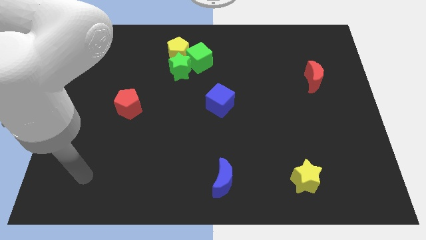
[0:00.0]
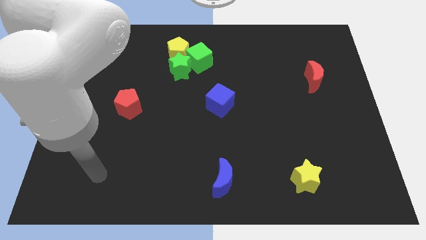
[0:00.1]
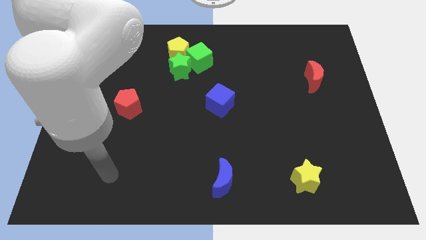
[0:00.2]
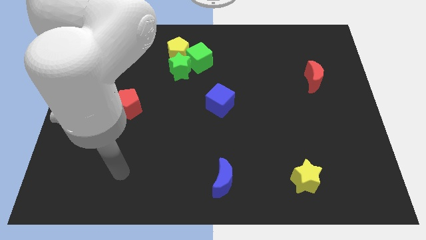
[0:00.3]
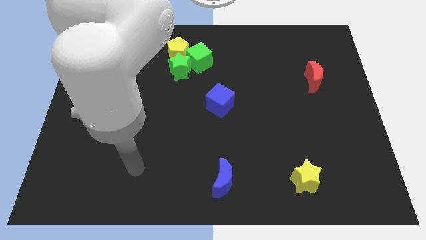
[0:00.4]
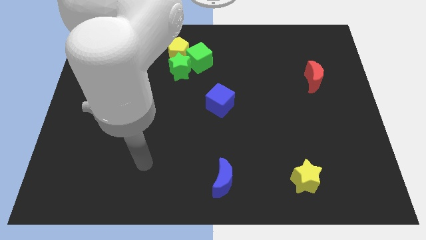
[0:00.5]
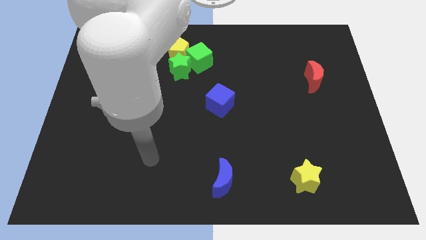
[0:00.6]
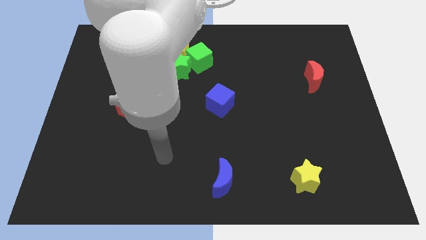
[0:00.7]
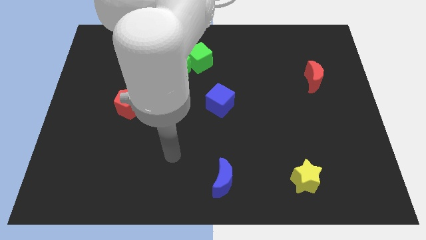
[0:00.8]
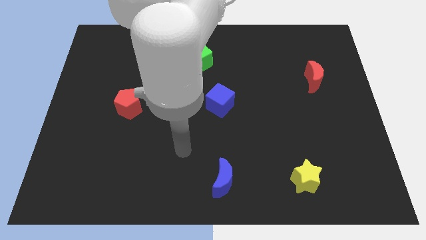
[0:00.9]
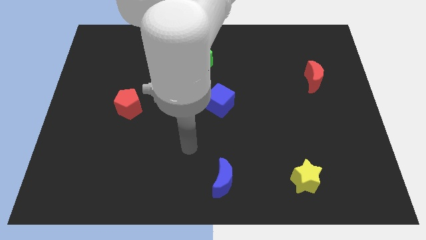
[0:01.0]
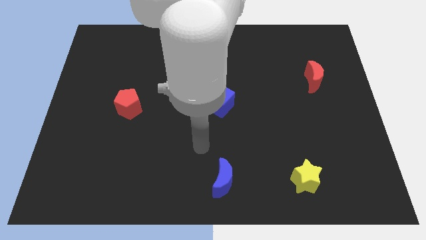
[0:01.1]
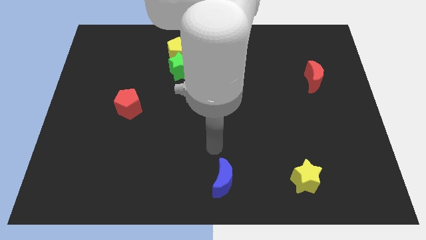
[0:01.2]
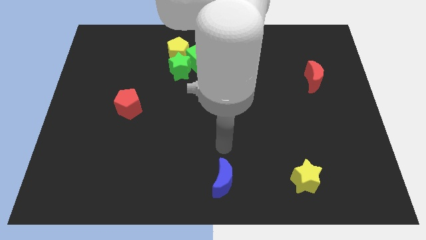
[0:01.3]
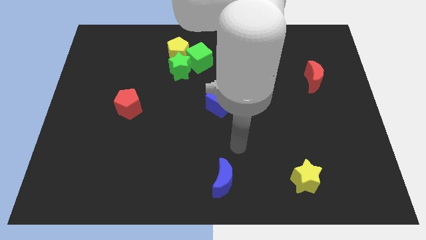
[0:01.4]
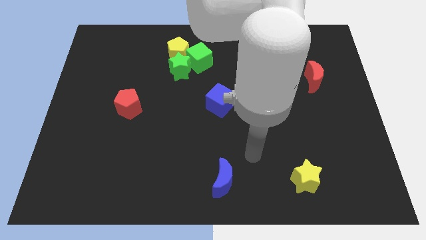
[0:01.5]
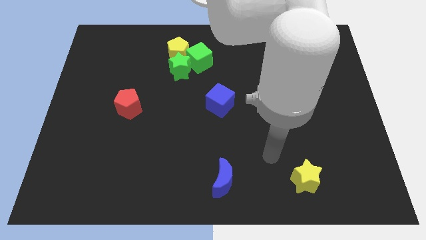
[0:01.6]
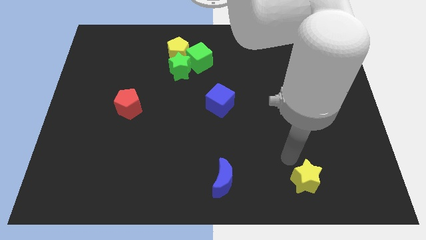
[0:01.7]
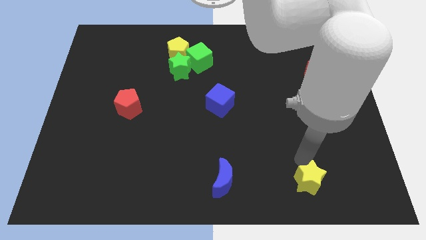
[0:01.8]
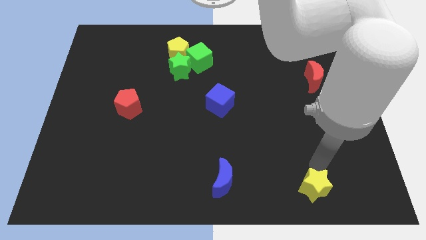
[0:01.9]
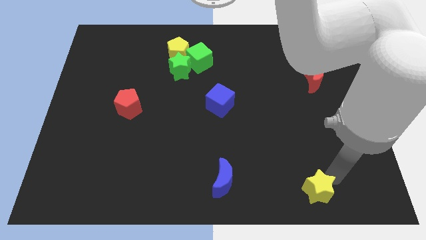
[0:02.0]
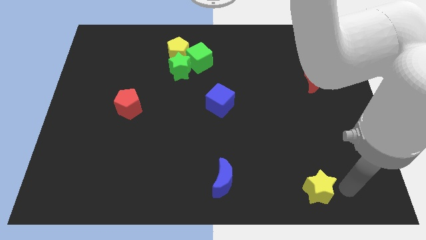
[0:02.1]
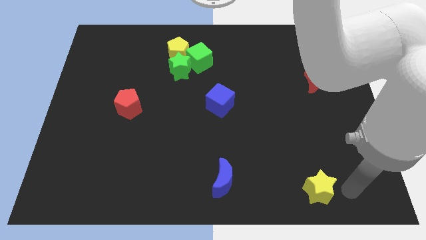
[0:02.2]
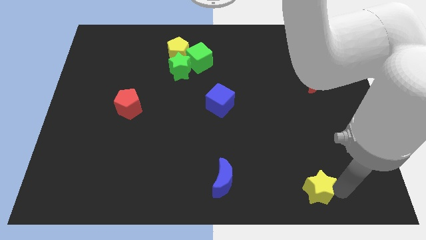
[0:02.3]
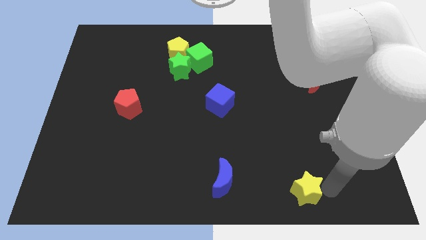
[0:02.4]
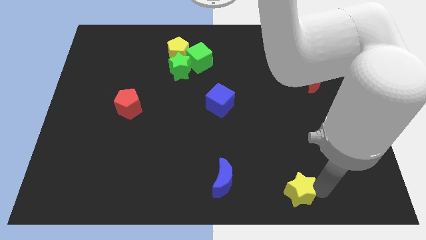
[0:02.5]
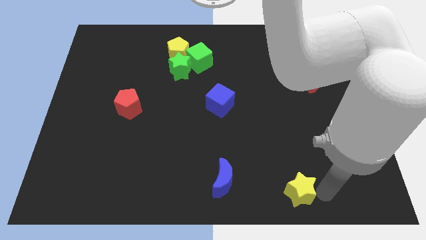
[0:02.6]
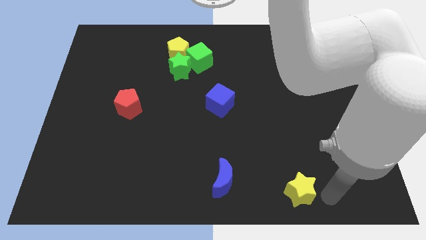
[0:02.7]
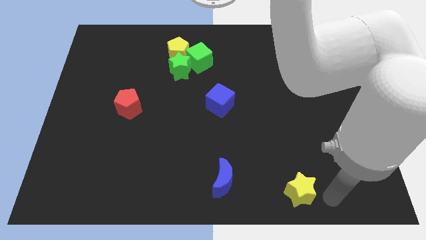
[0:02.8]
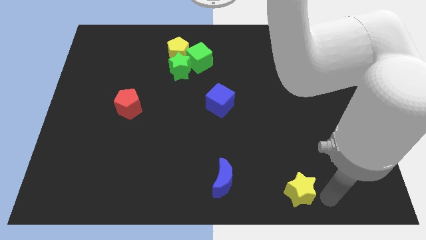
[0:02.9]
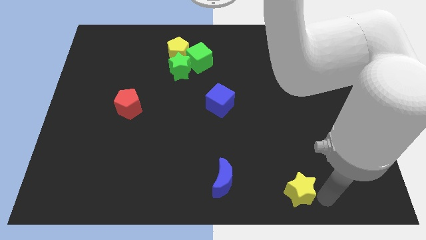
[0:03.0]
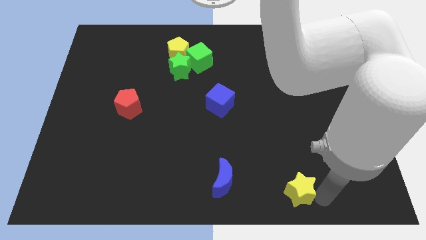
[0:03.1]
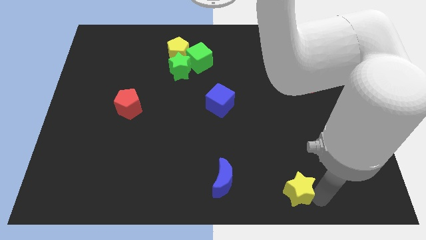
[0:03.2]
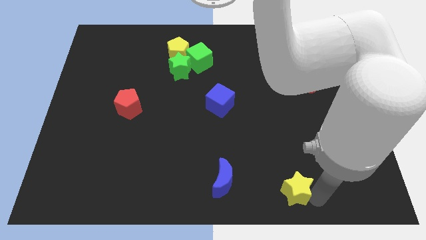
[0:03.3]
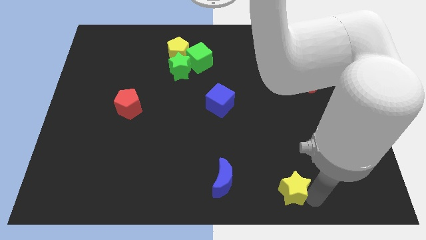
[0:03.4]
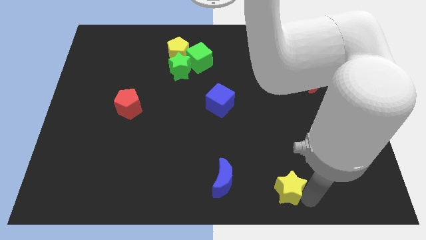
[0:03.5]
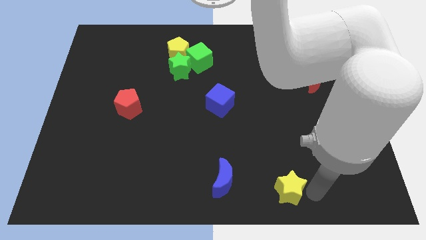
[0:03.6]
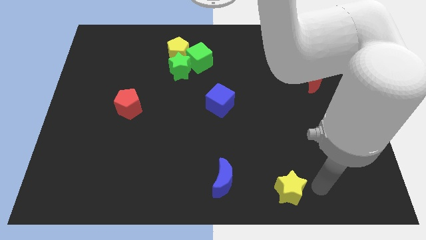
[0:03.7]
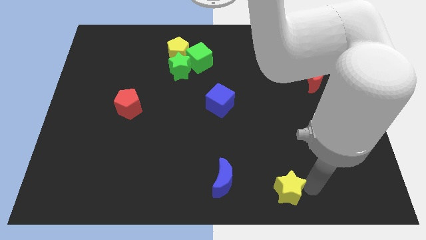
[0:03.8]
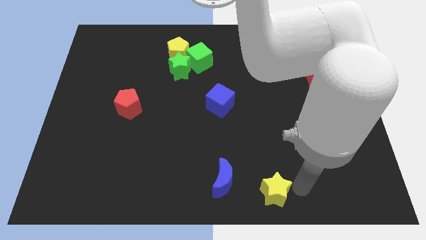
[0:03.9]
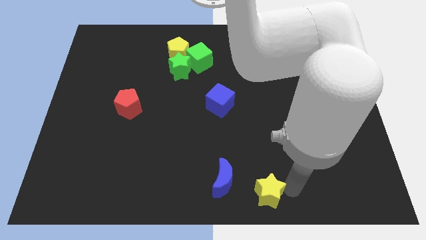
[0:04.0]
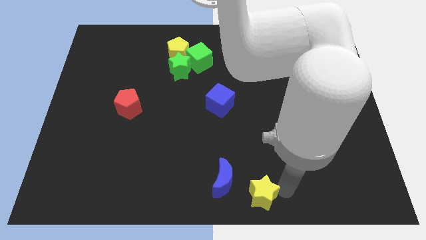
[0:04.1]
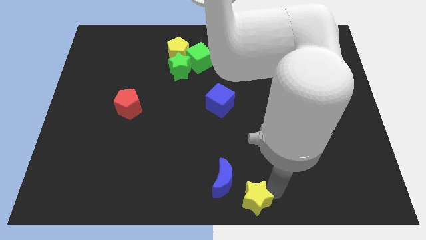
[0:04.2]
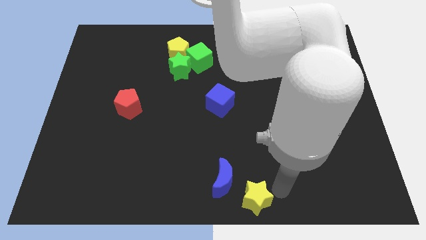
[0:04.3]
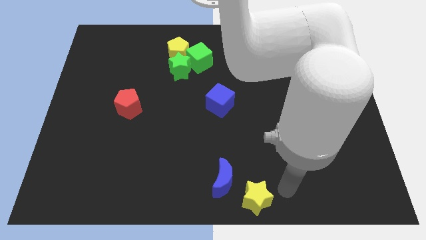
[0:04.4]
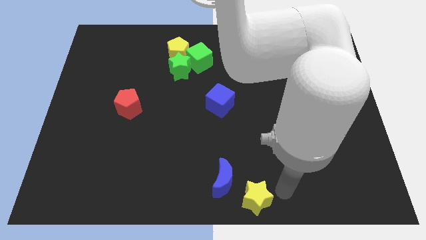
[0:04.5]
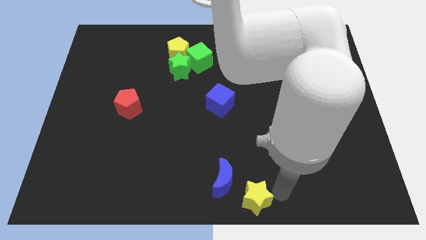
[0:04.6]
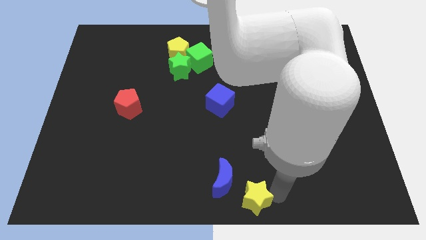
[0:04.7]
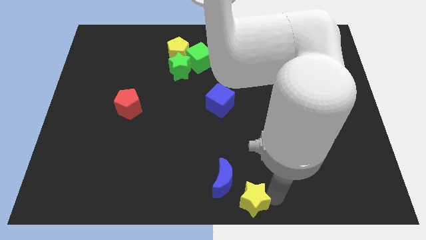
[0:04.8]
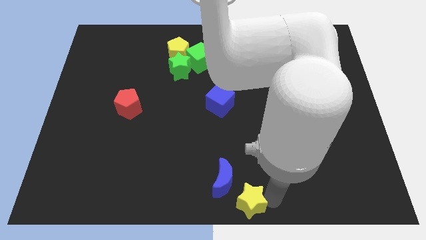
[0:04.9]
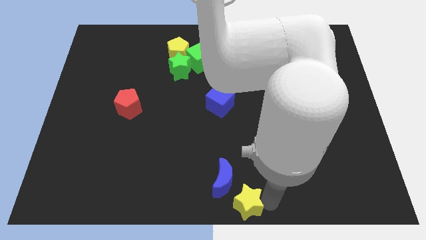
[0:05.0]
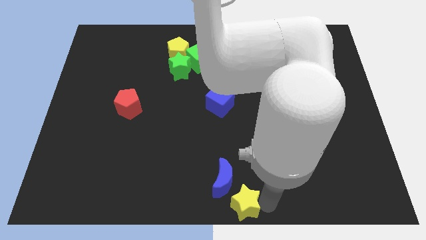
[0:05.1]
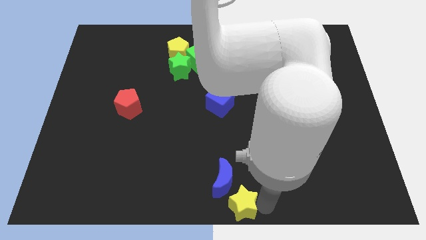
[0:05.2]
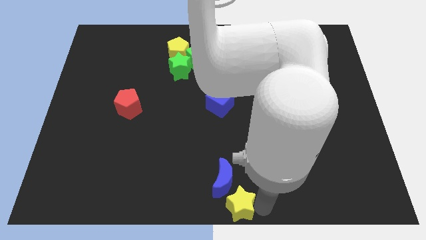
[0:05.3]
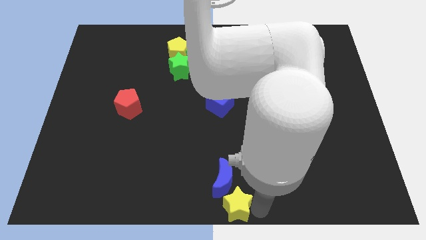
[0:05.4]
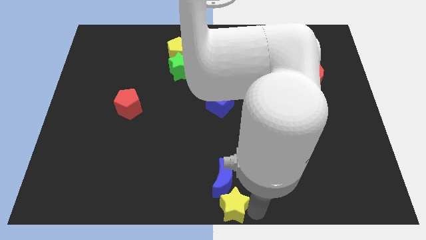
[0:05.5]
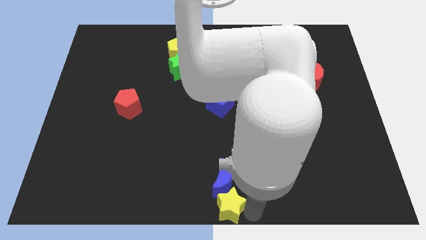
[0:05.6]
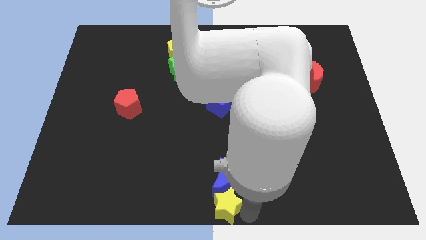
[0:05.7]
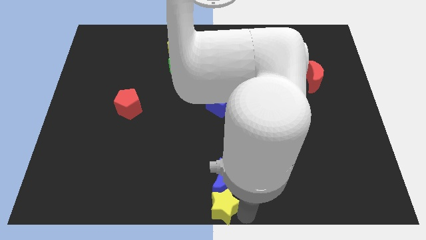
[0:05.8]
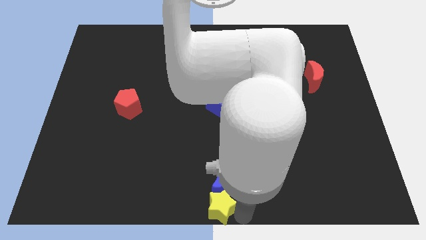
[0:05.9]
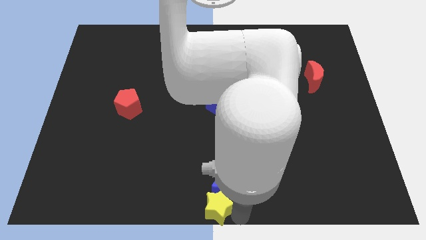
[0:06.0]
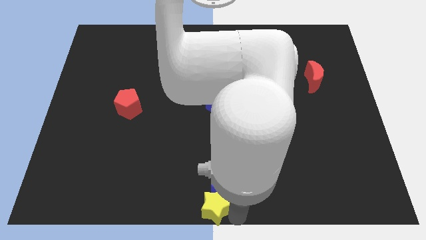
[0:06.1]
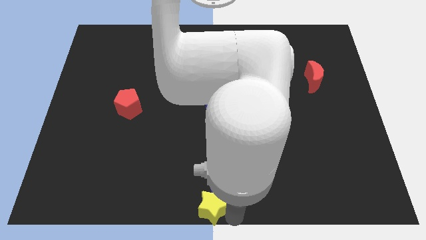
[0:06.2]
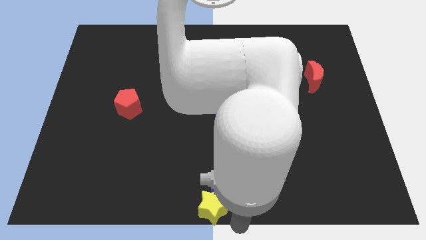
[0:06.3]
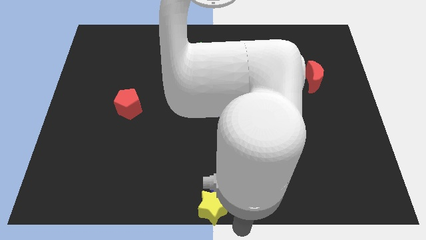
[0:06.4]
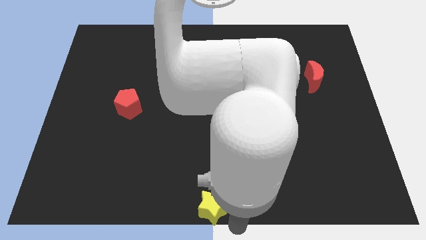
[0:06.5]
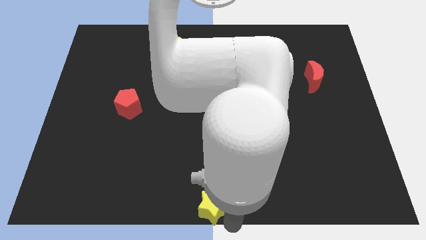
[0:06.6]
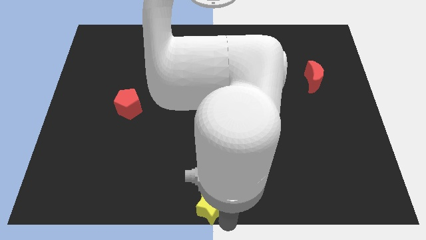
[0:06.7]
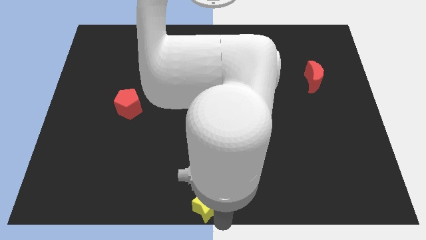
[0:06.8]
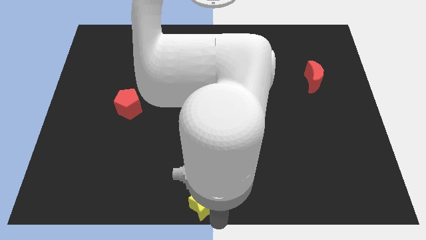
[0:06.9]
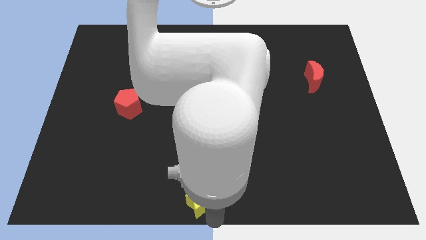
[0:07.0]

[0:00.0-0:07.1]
slide the yellow star left

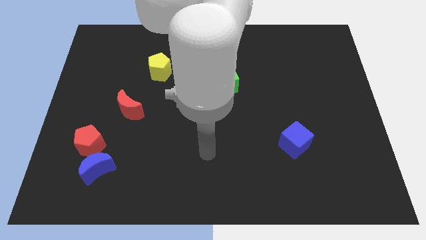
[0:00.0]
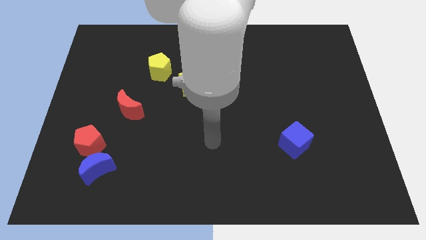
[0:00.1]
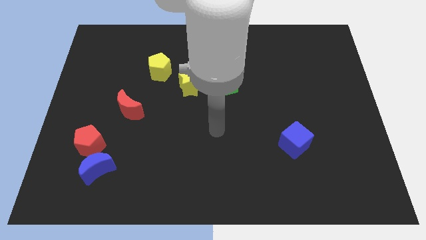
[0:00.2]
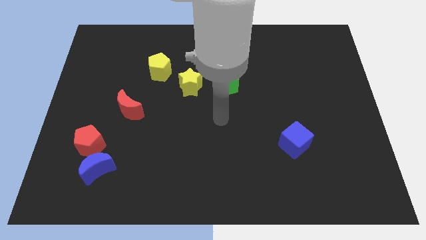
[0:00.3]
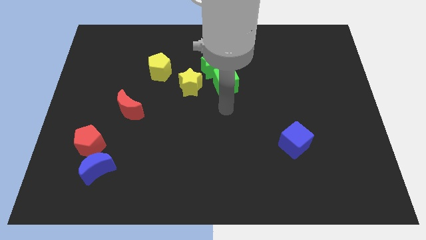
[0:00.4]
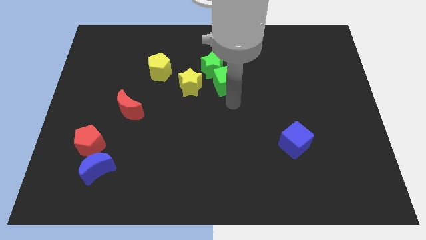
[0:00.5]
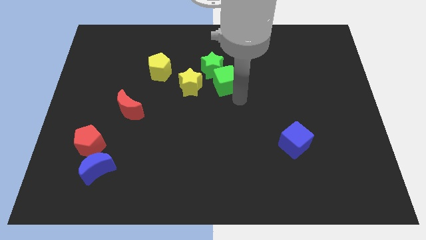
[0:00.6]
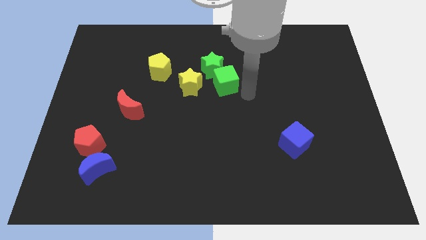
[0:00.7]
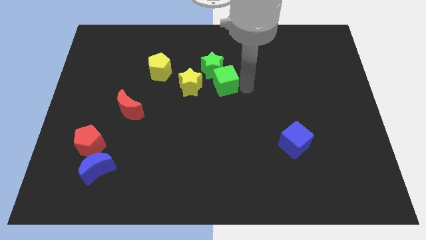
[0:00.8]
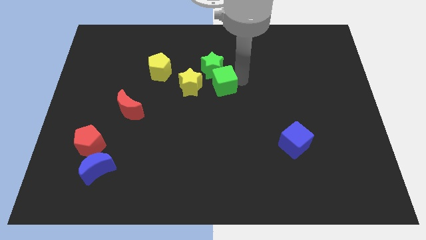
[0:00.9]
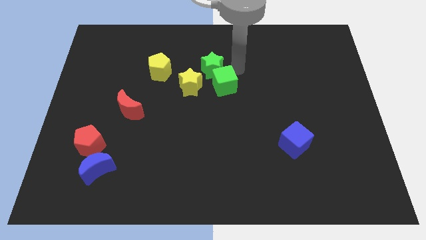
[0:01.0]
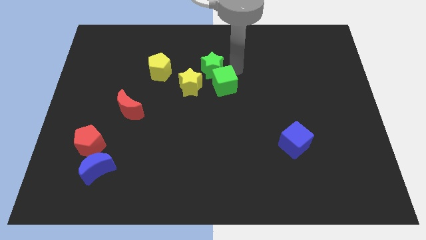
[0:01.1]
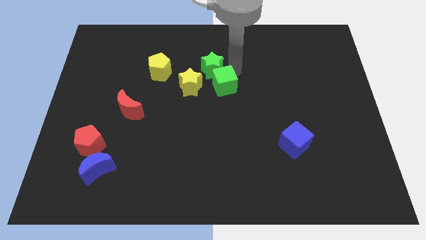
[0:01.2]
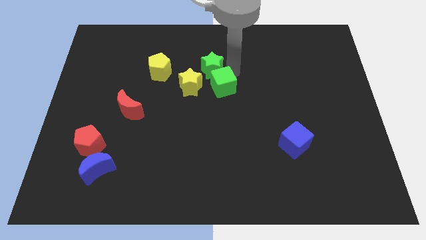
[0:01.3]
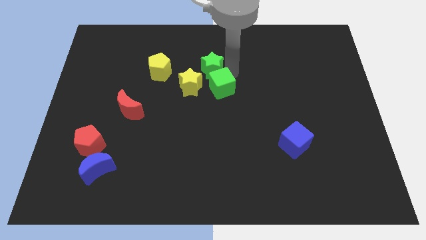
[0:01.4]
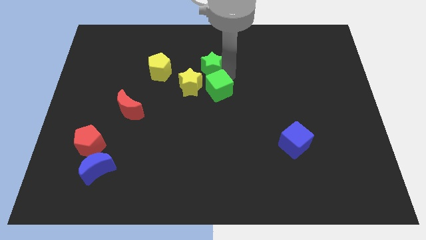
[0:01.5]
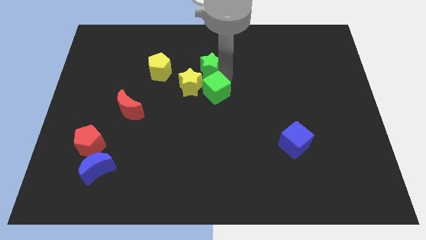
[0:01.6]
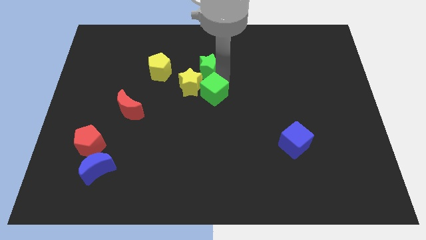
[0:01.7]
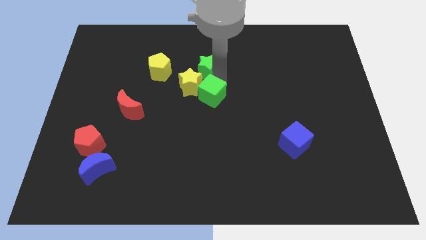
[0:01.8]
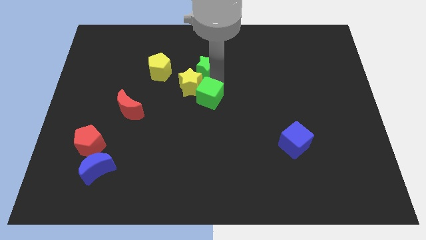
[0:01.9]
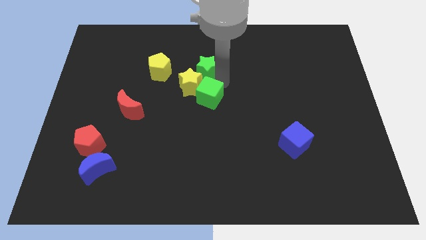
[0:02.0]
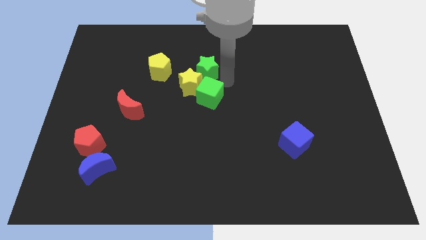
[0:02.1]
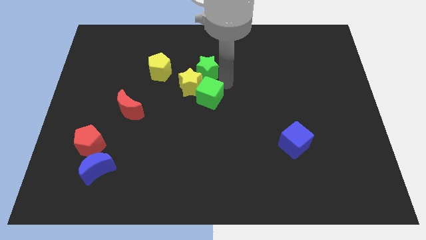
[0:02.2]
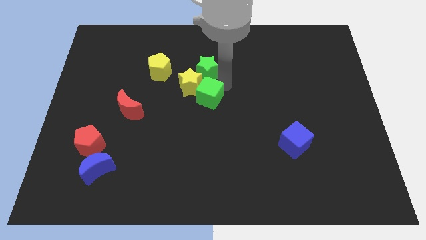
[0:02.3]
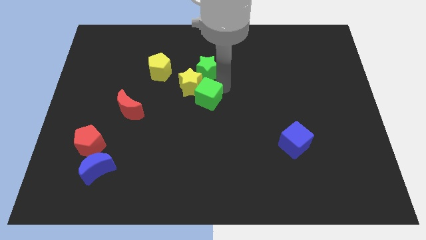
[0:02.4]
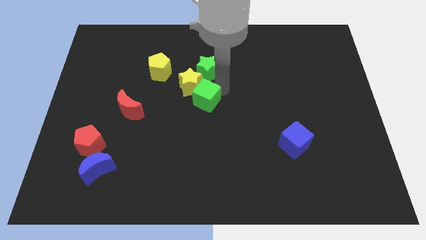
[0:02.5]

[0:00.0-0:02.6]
slide the green cube downwards and then to the left slightly
